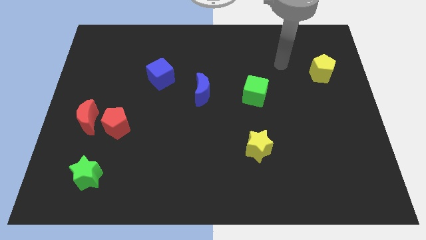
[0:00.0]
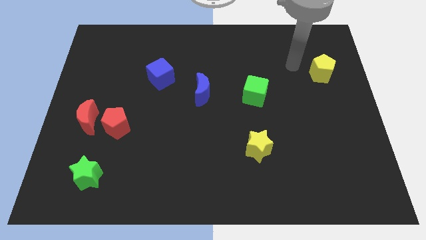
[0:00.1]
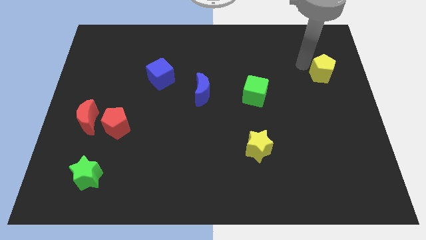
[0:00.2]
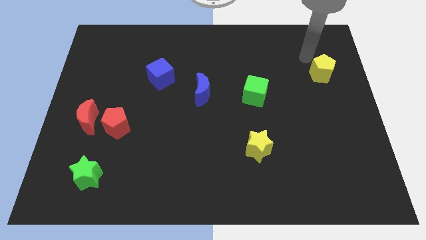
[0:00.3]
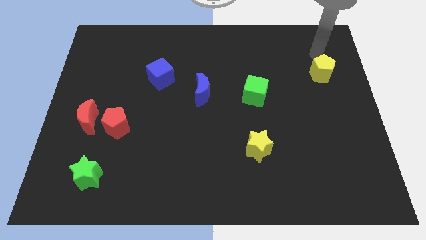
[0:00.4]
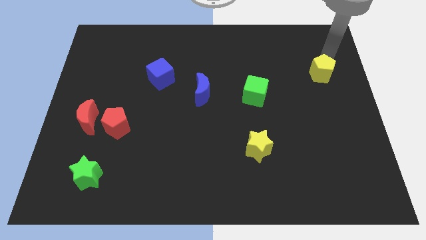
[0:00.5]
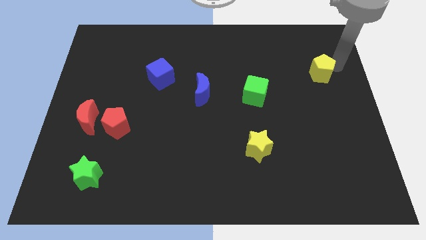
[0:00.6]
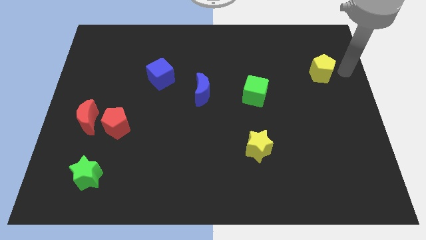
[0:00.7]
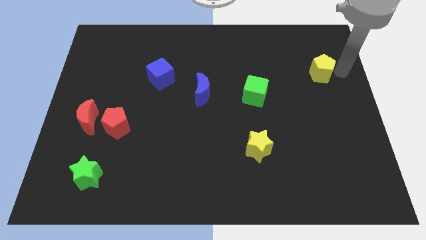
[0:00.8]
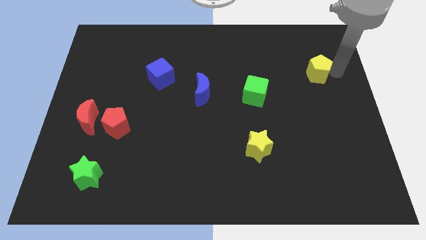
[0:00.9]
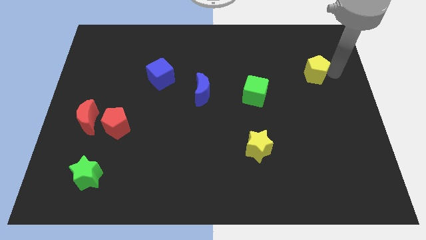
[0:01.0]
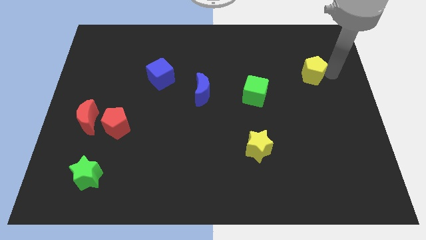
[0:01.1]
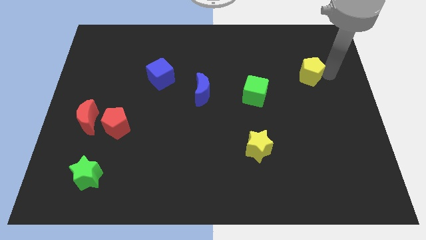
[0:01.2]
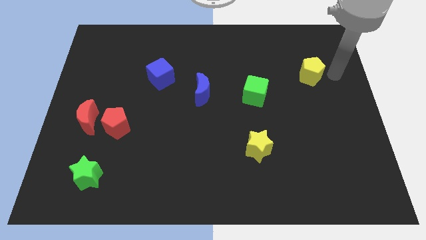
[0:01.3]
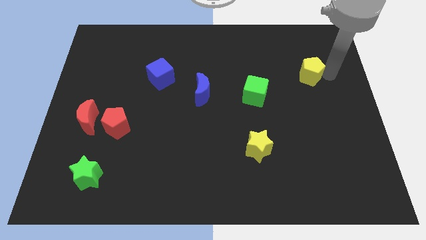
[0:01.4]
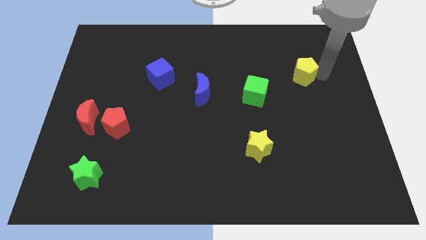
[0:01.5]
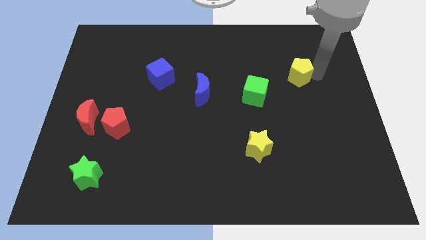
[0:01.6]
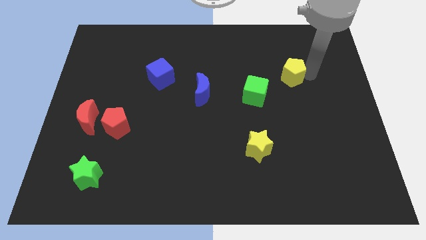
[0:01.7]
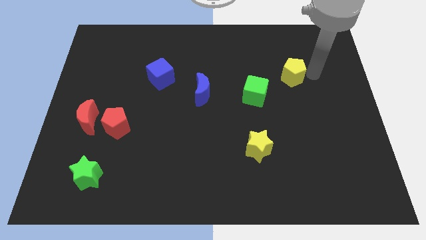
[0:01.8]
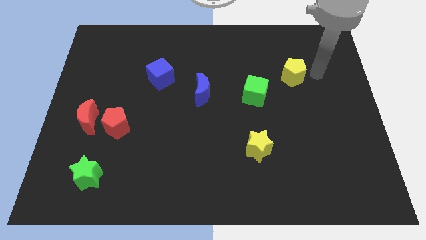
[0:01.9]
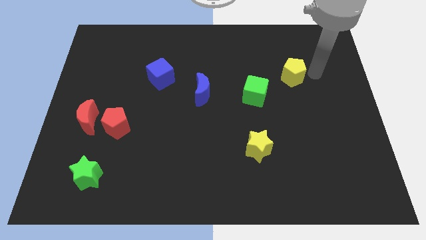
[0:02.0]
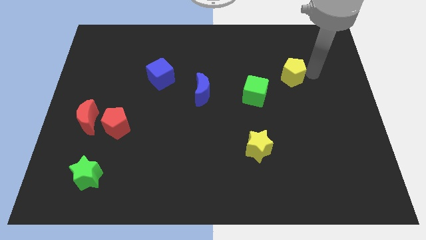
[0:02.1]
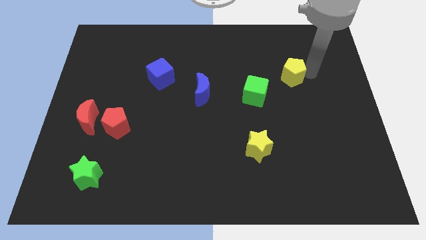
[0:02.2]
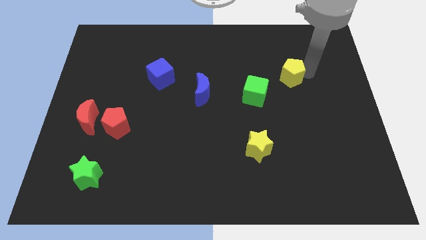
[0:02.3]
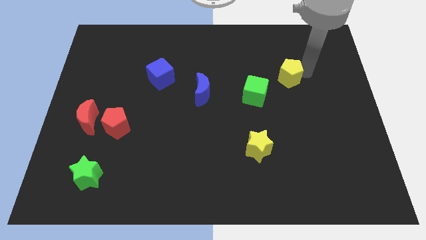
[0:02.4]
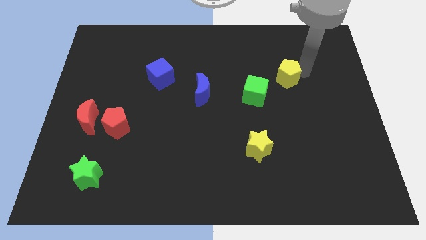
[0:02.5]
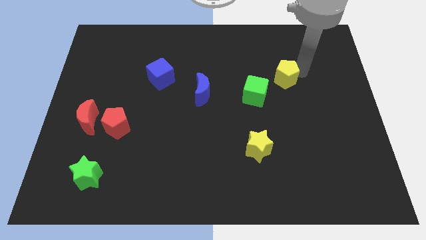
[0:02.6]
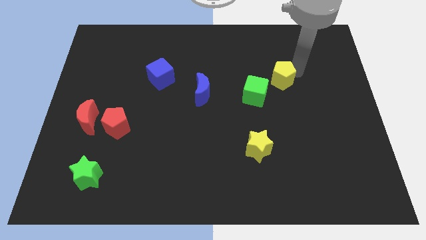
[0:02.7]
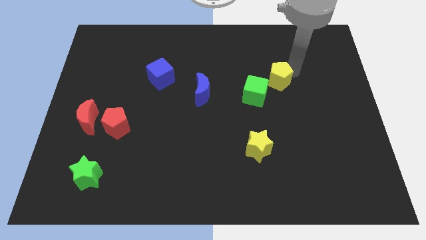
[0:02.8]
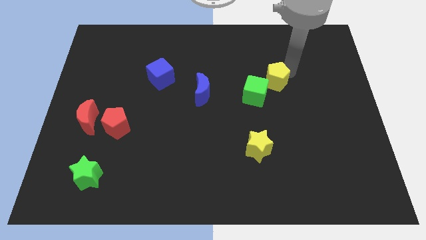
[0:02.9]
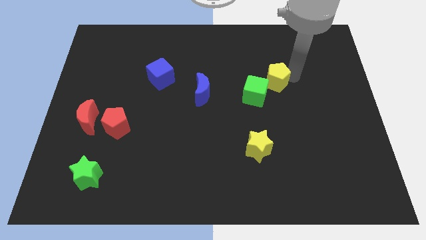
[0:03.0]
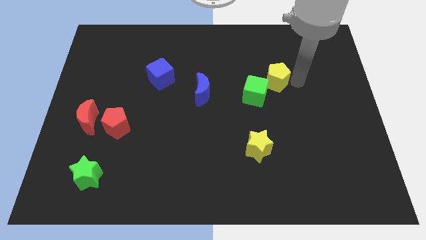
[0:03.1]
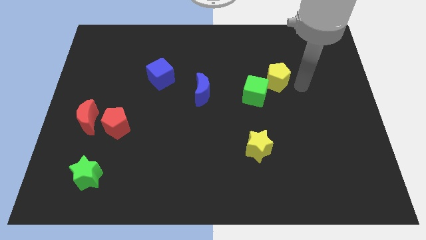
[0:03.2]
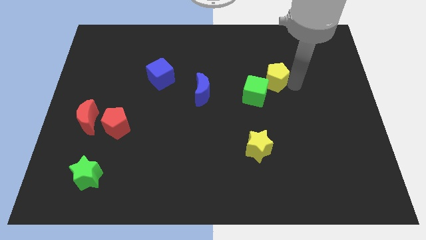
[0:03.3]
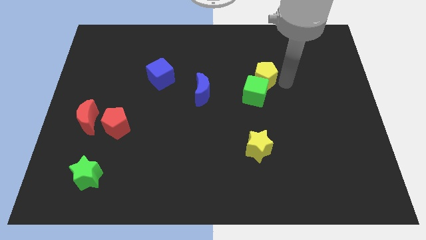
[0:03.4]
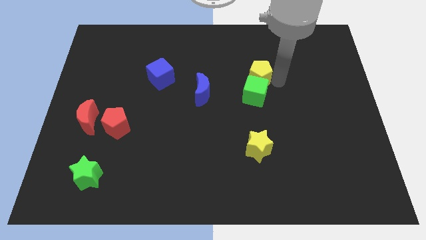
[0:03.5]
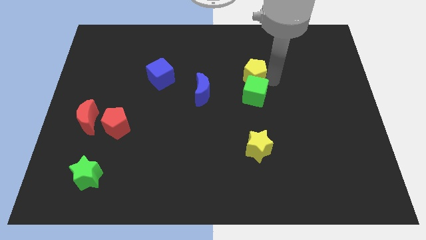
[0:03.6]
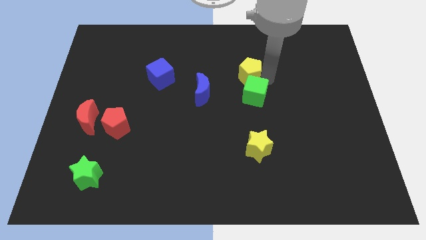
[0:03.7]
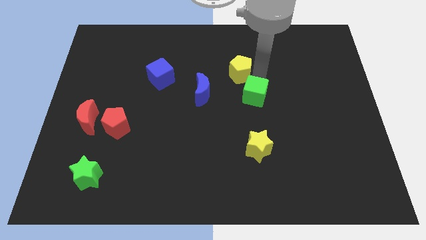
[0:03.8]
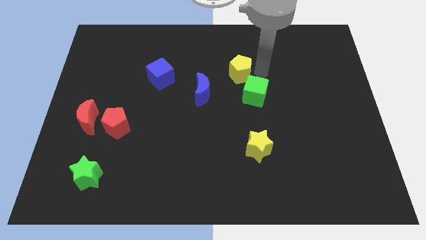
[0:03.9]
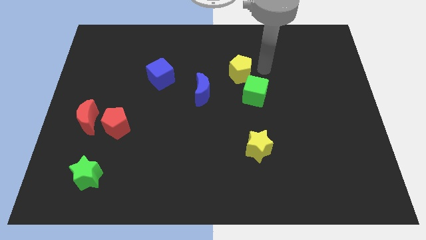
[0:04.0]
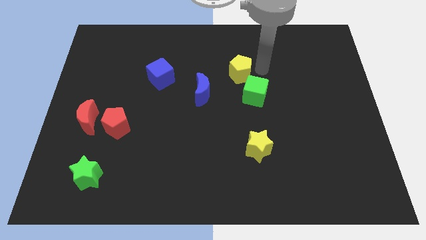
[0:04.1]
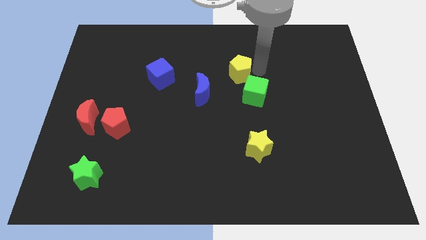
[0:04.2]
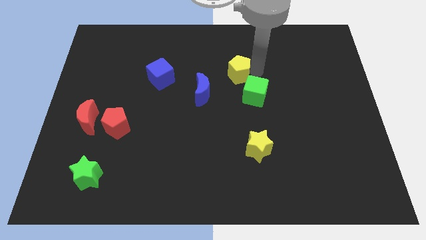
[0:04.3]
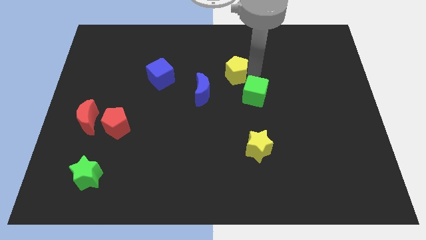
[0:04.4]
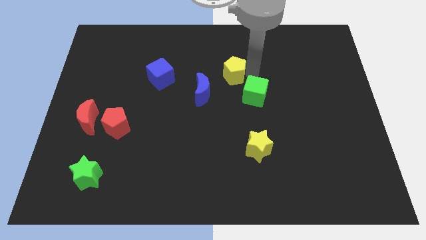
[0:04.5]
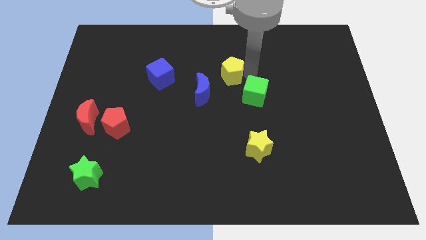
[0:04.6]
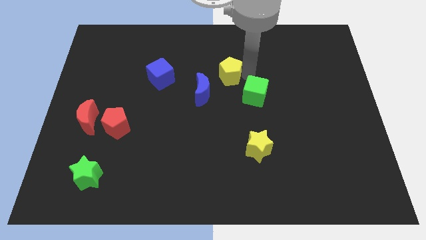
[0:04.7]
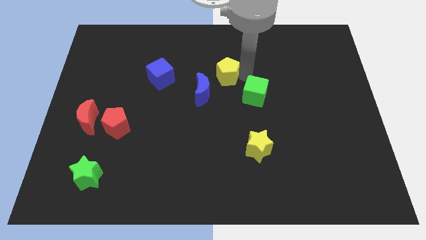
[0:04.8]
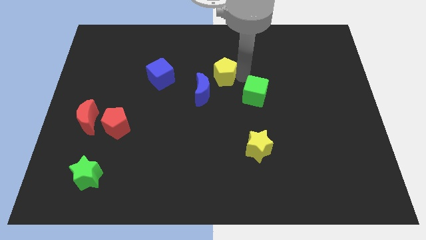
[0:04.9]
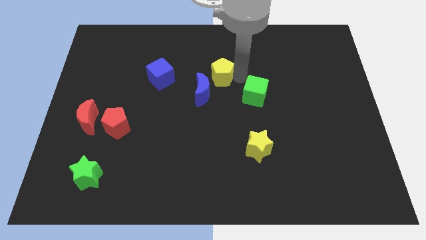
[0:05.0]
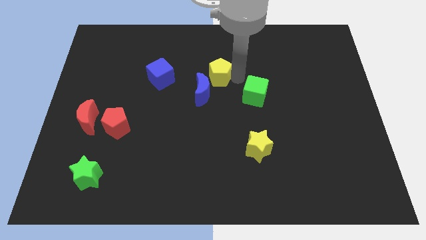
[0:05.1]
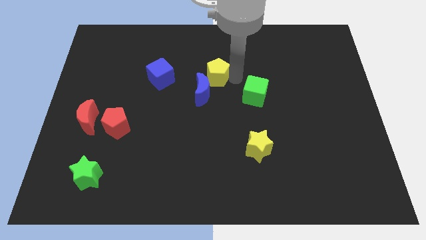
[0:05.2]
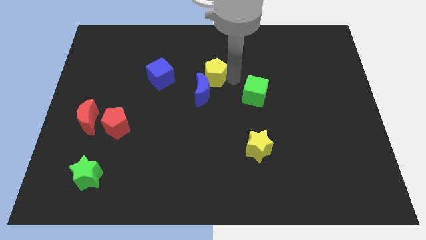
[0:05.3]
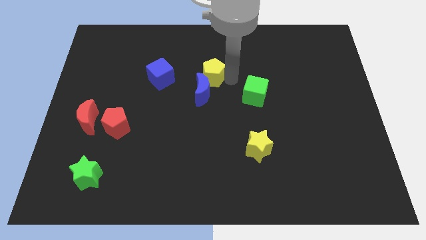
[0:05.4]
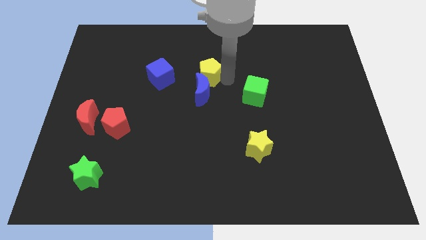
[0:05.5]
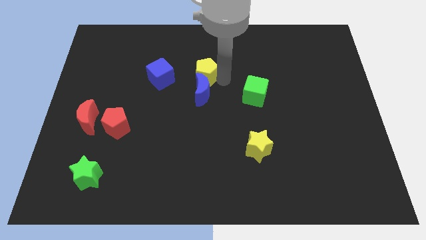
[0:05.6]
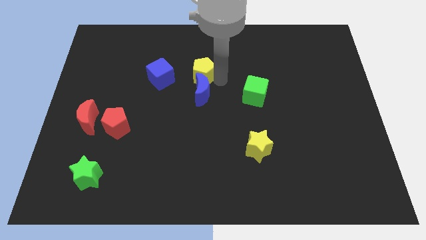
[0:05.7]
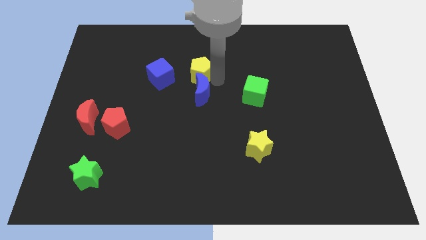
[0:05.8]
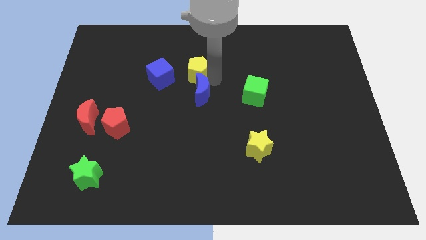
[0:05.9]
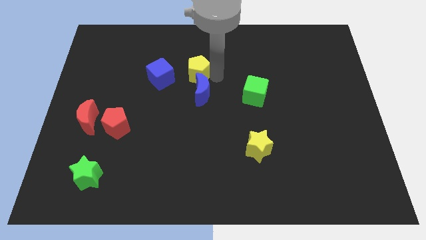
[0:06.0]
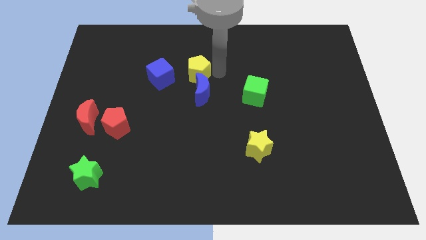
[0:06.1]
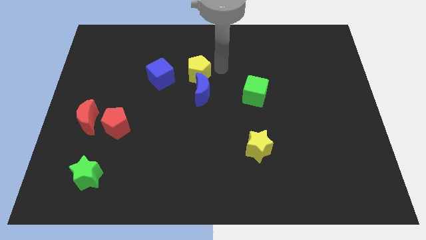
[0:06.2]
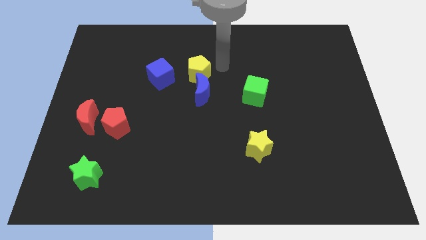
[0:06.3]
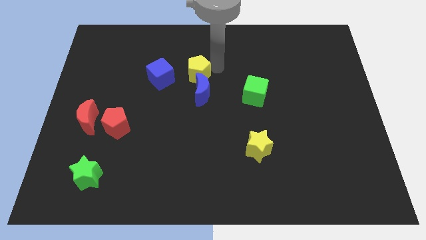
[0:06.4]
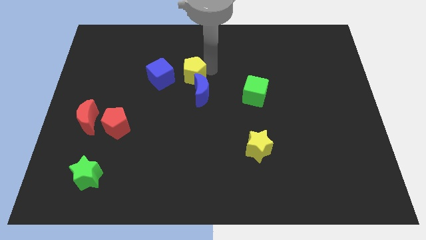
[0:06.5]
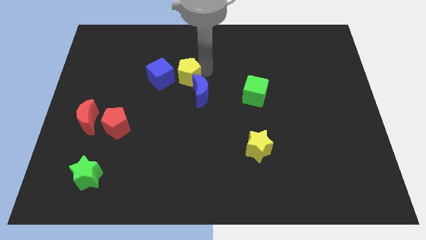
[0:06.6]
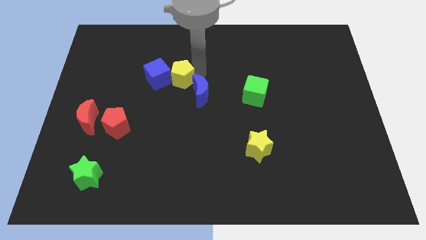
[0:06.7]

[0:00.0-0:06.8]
put the yellow pentagon to the blue cube

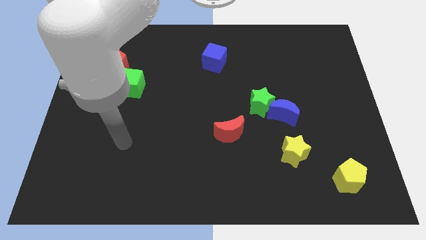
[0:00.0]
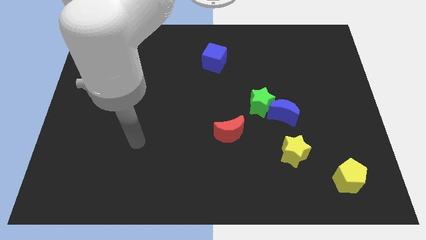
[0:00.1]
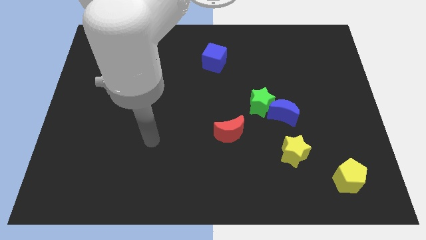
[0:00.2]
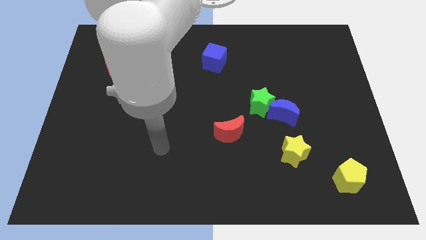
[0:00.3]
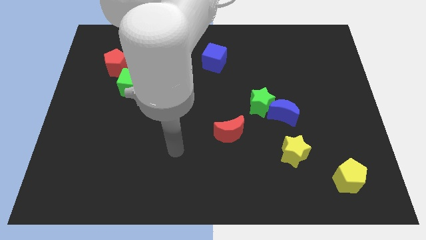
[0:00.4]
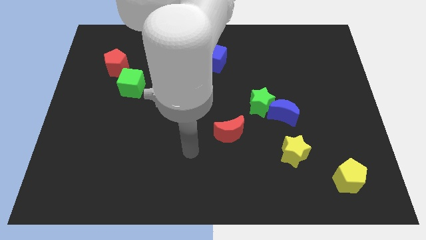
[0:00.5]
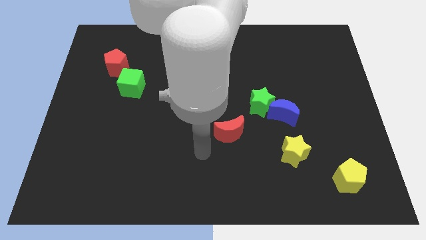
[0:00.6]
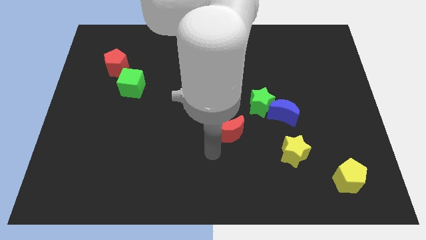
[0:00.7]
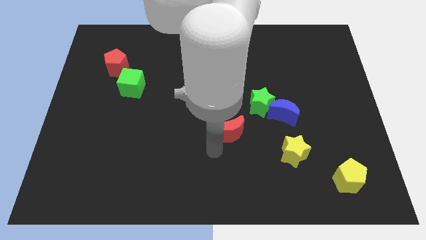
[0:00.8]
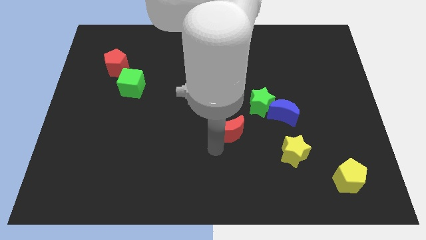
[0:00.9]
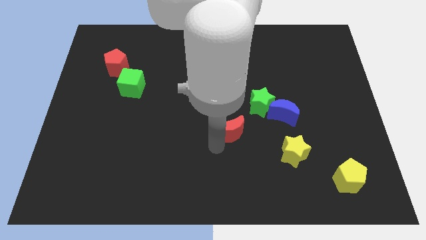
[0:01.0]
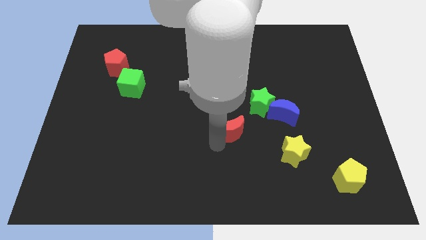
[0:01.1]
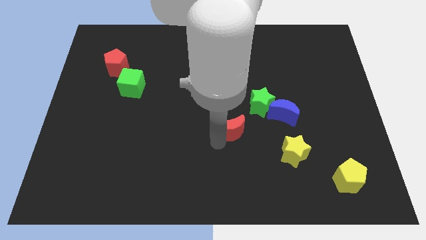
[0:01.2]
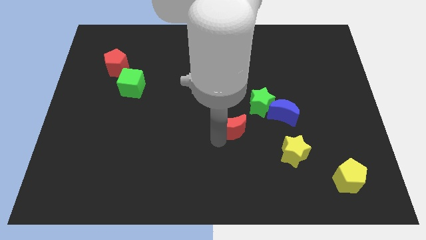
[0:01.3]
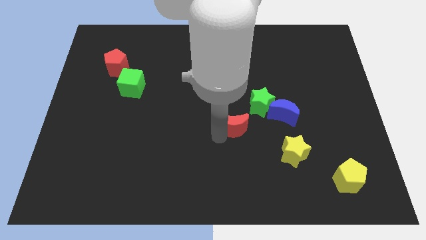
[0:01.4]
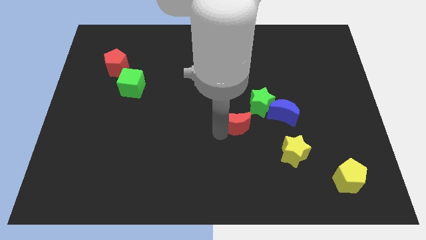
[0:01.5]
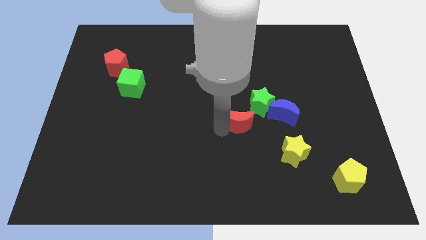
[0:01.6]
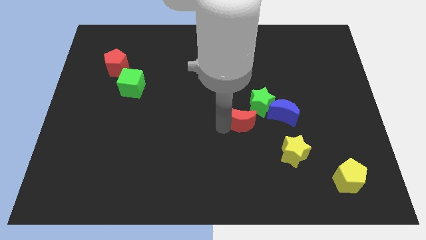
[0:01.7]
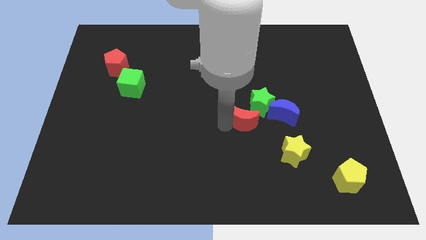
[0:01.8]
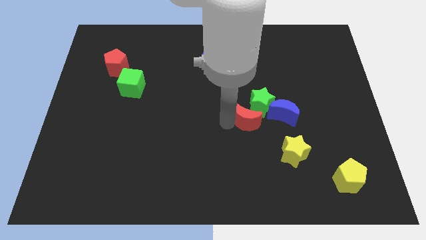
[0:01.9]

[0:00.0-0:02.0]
move the red moon towards the green star
